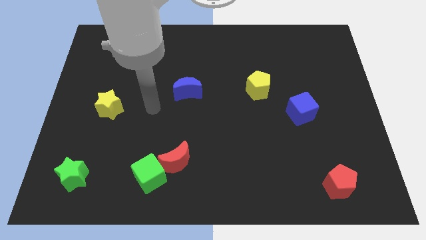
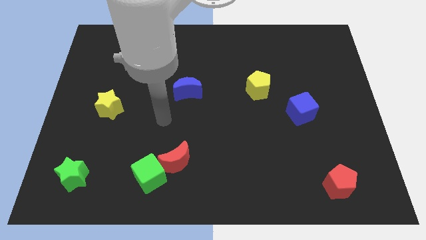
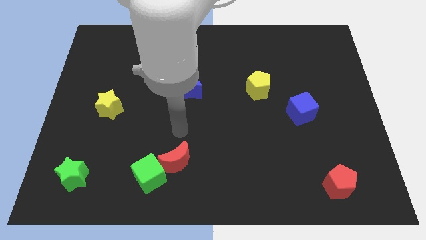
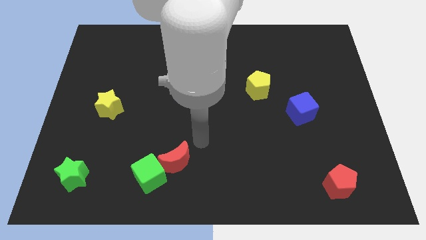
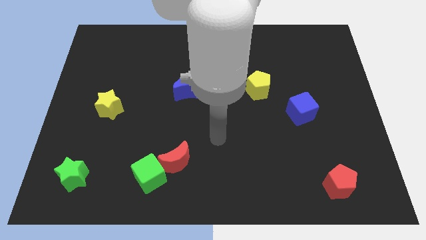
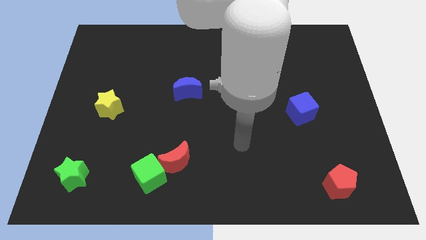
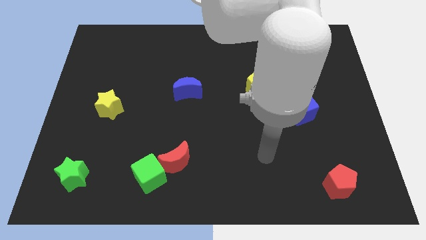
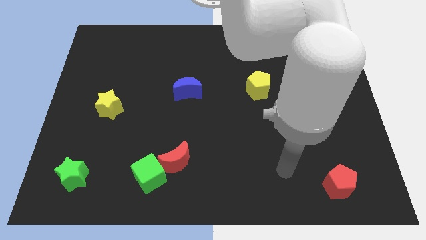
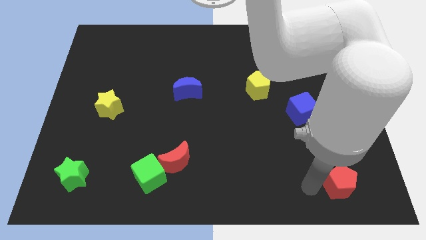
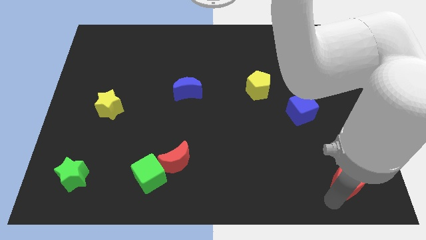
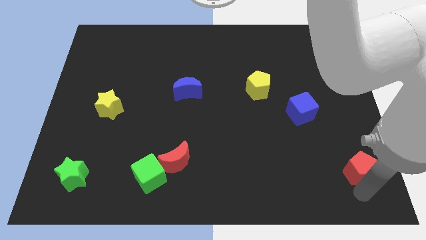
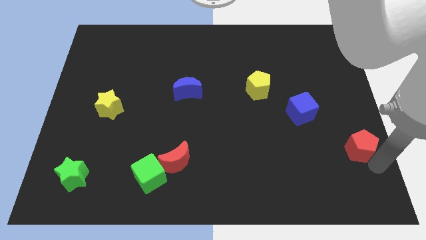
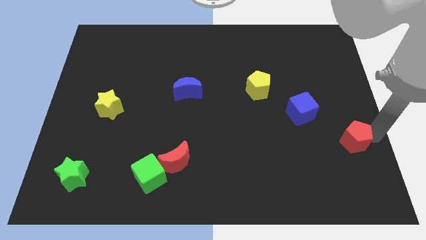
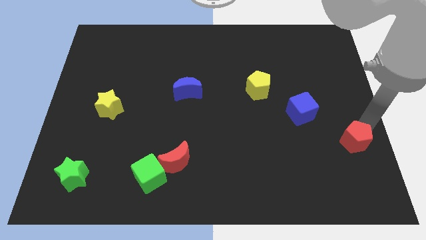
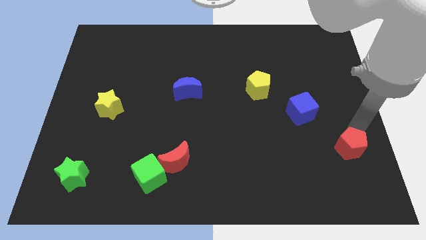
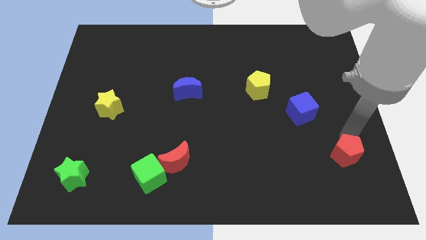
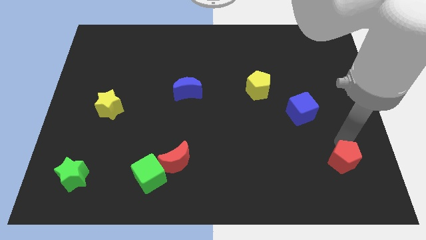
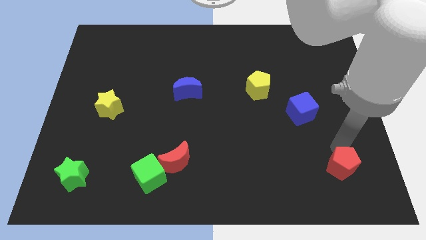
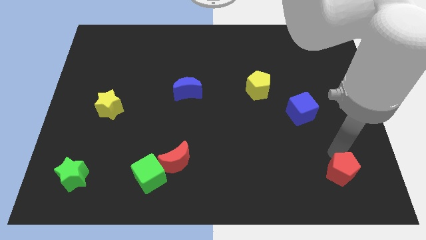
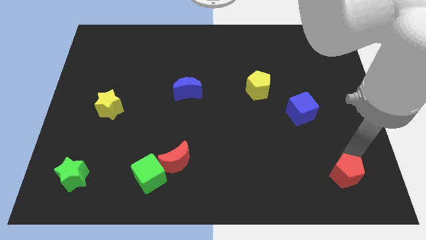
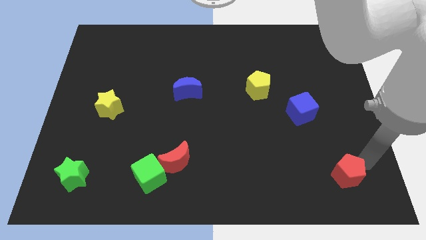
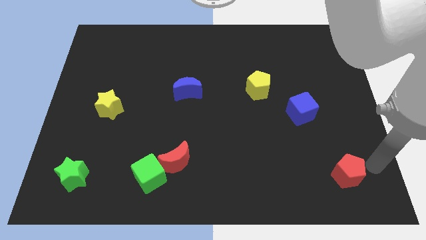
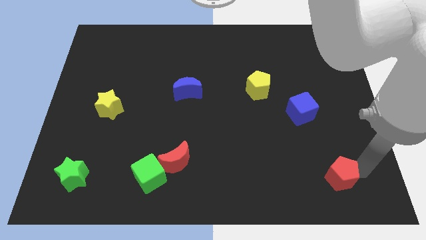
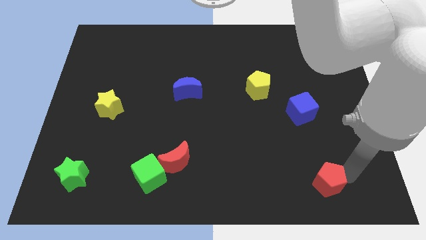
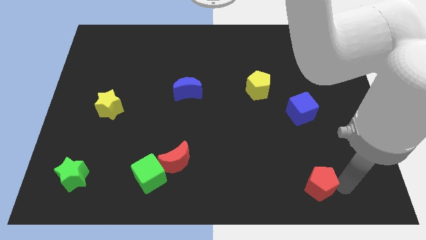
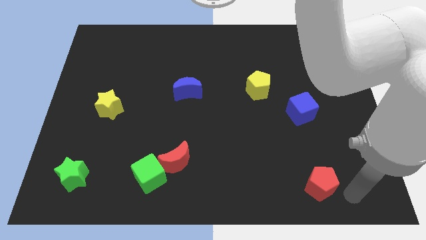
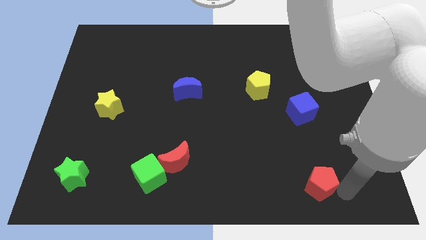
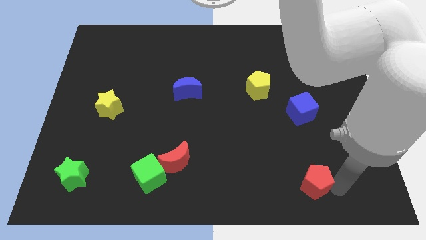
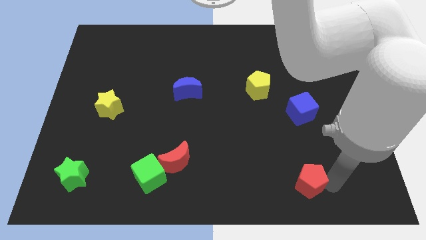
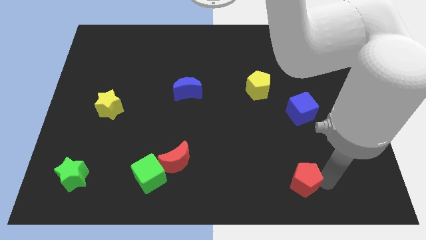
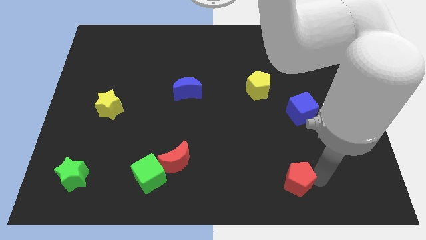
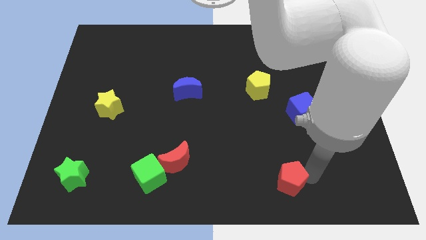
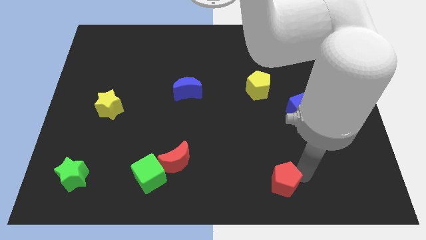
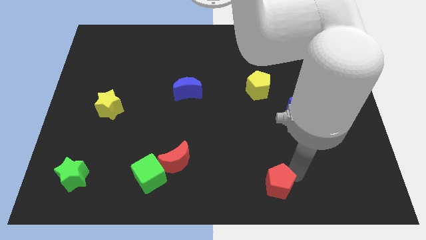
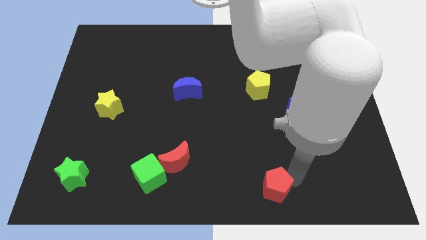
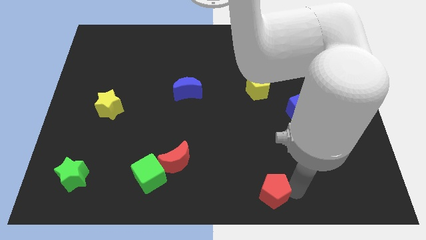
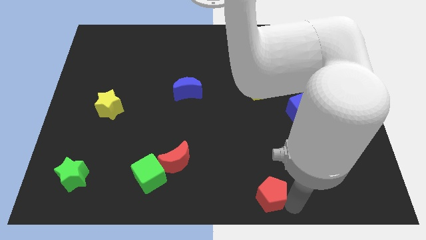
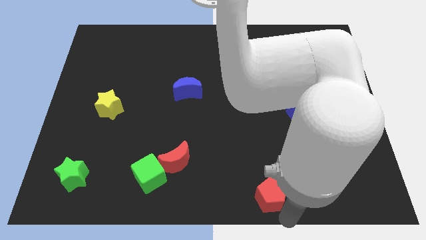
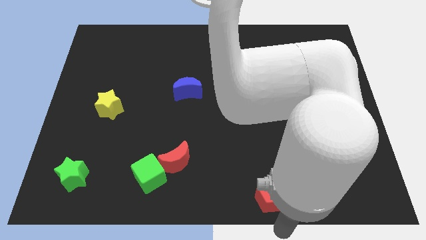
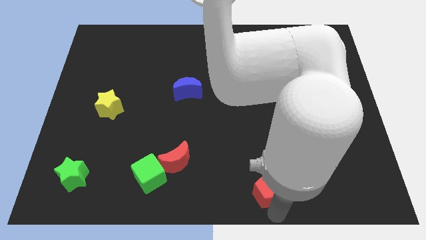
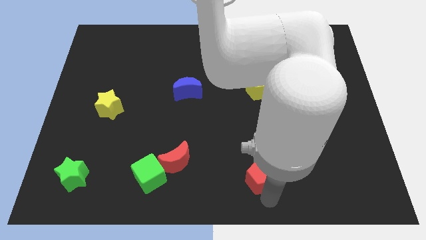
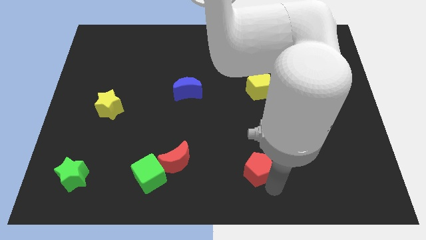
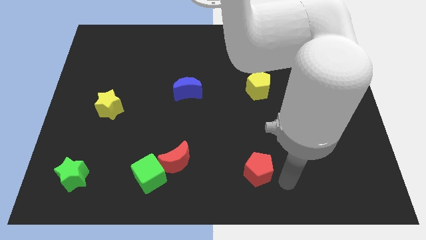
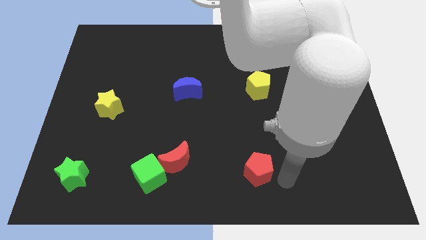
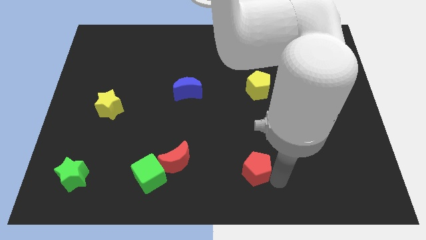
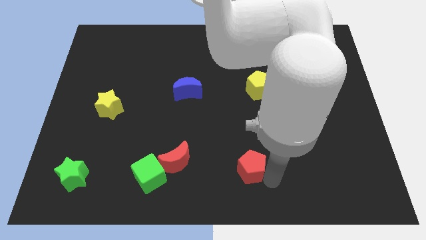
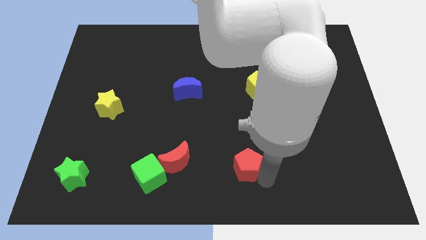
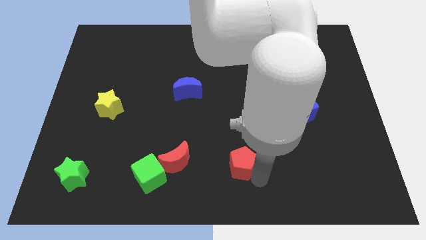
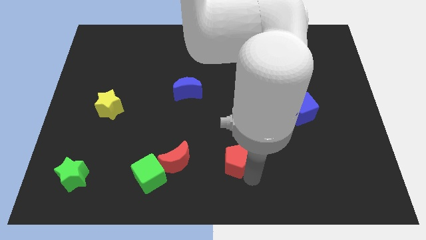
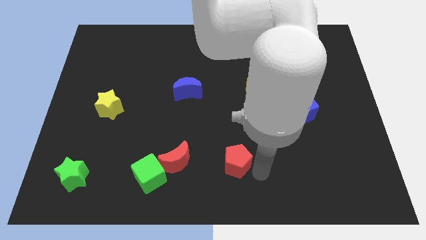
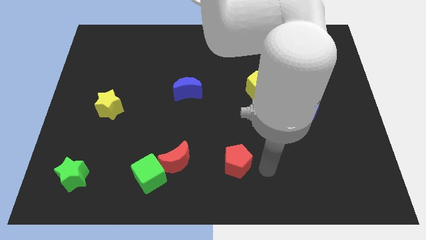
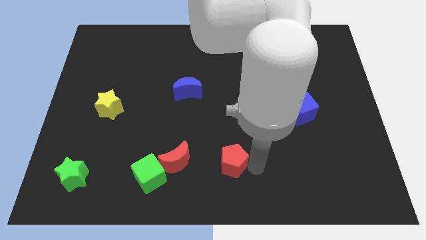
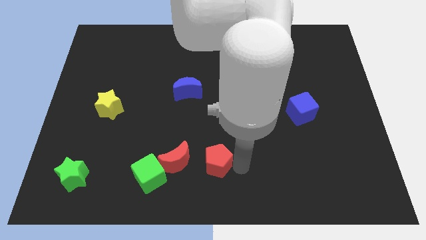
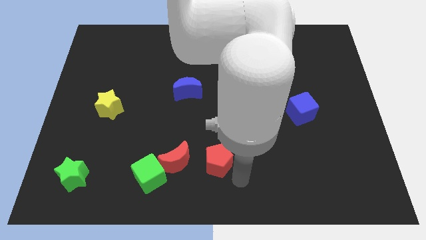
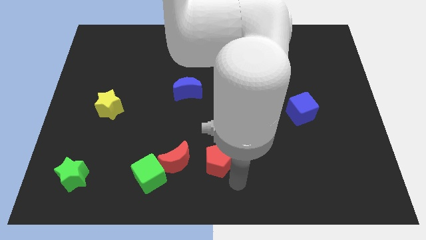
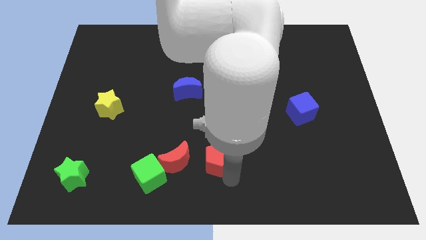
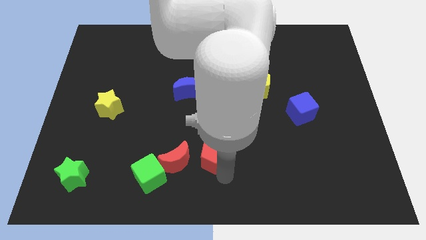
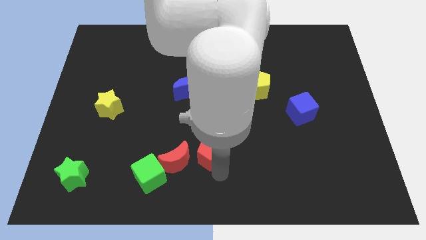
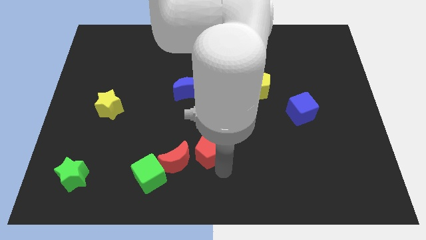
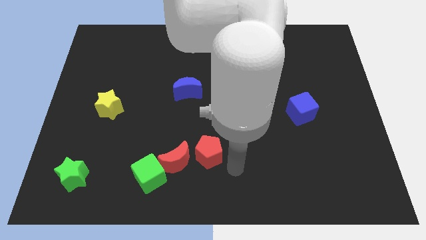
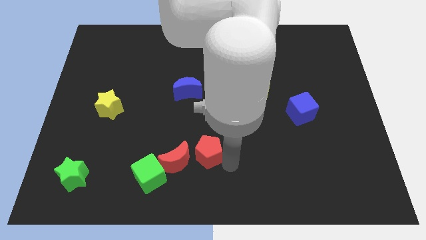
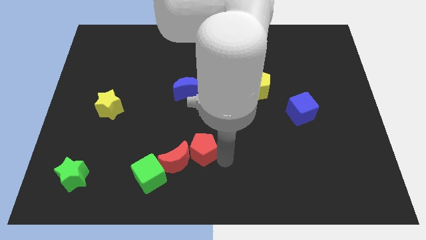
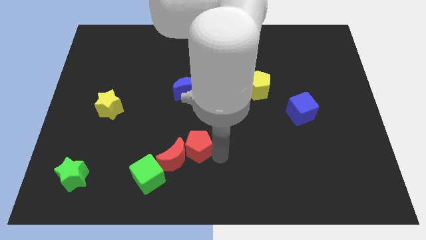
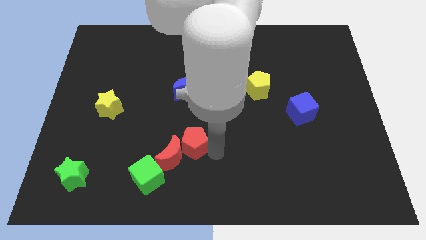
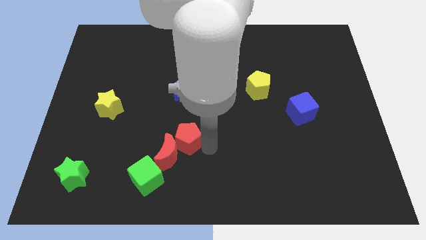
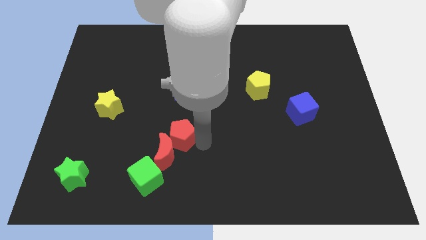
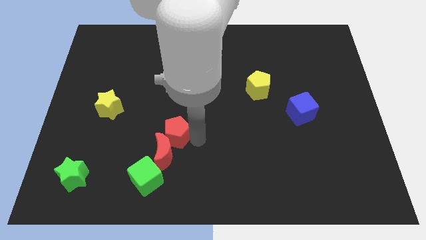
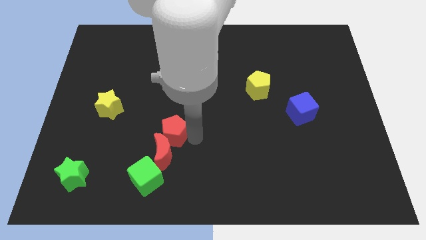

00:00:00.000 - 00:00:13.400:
move the red pentagon to the top side of the green cube

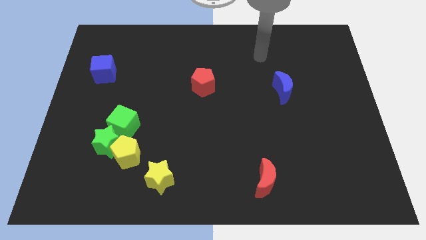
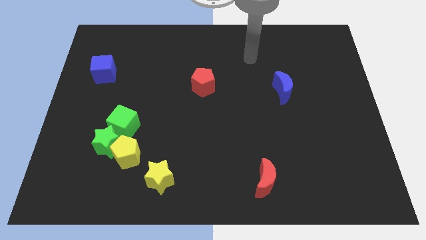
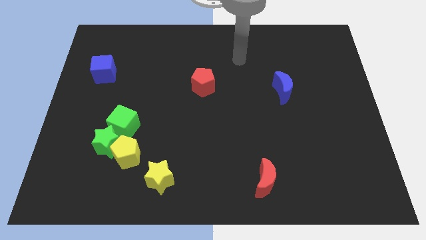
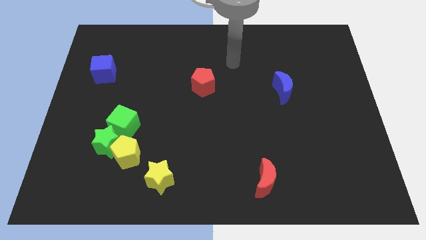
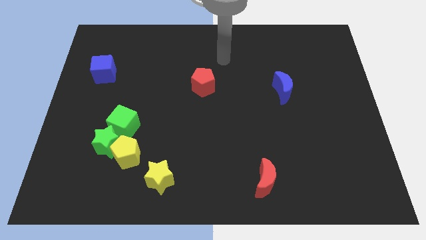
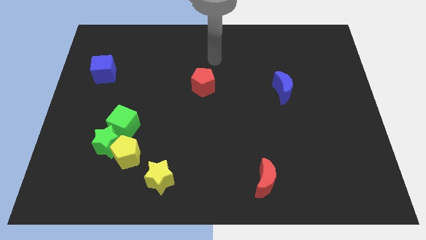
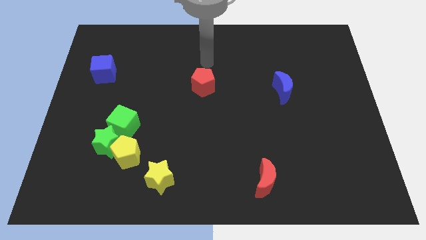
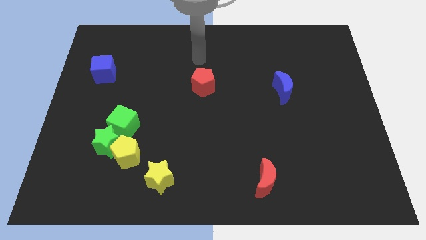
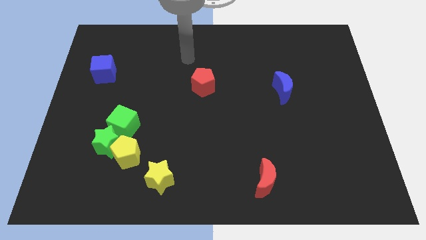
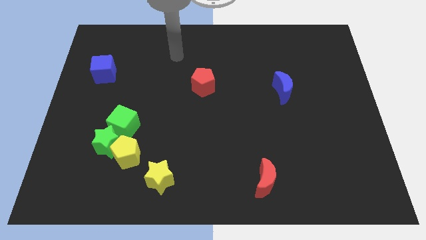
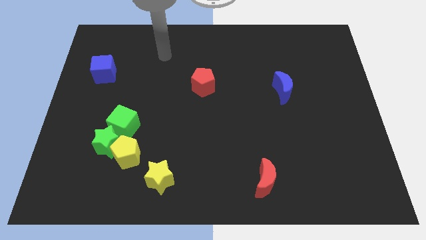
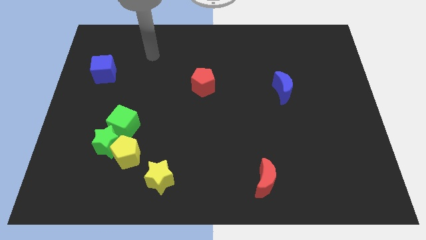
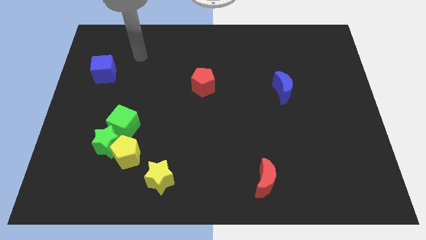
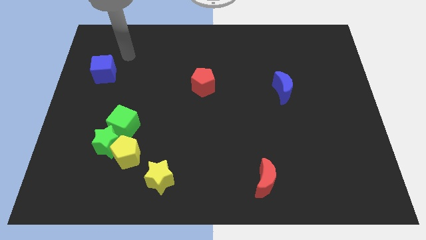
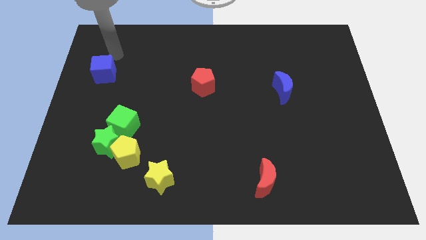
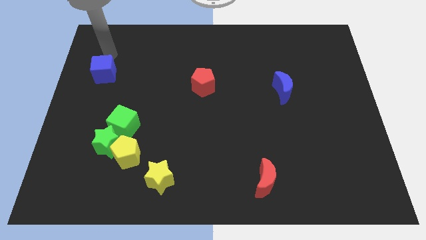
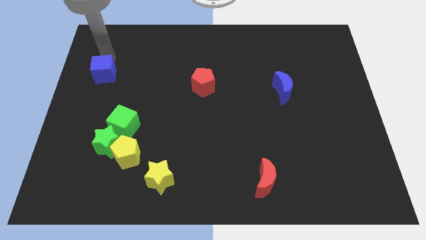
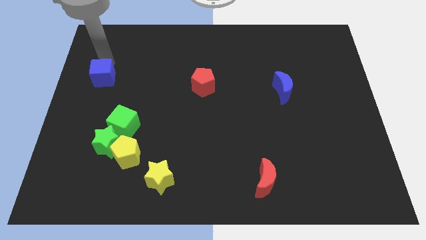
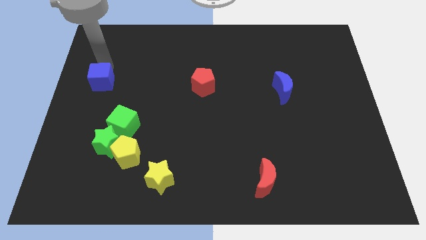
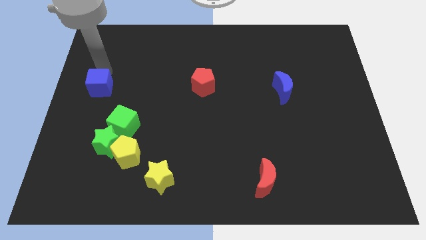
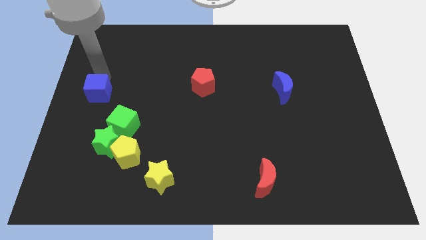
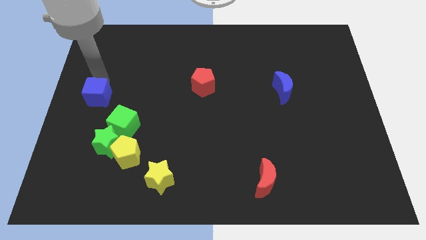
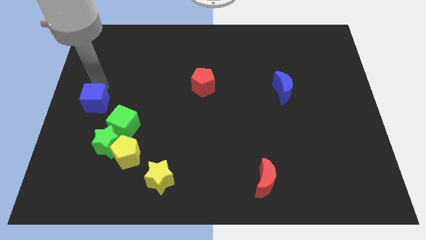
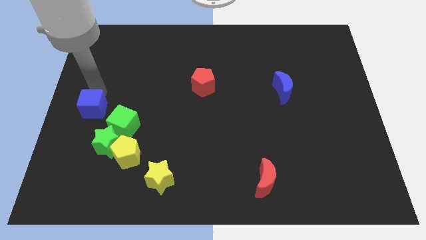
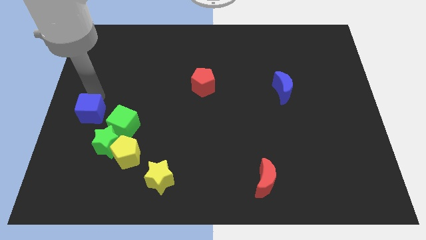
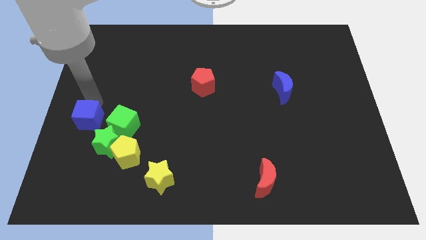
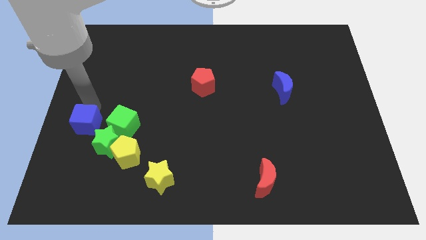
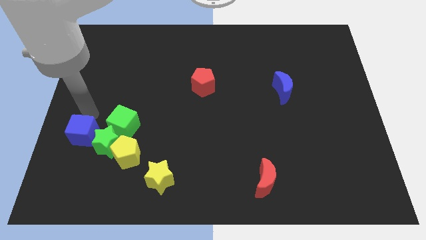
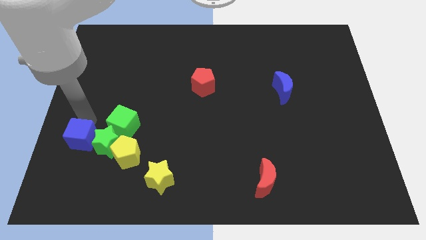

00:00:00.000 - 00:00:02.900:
slide the blue cube to the left side of the yellow pentagon
